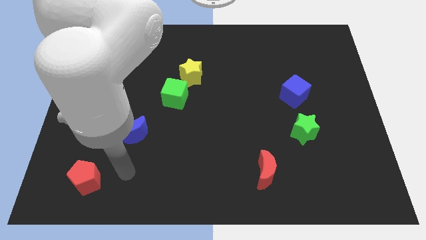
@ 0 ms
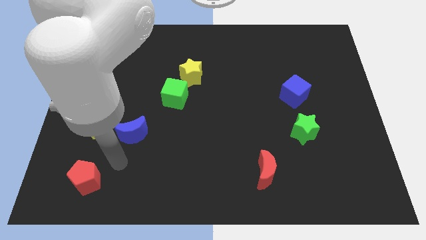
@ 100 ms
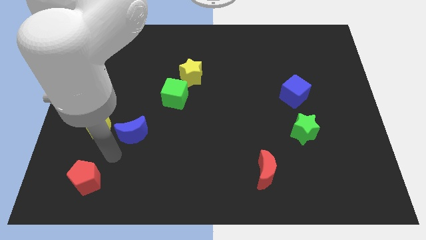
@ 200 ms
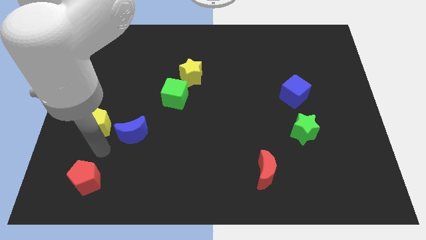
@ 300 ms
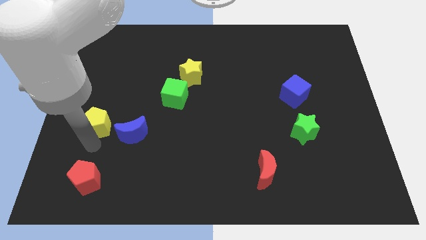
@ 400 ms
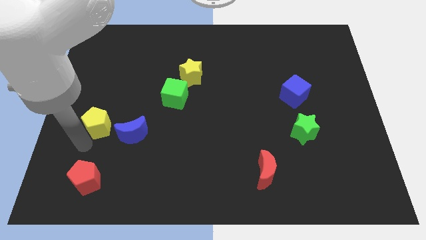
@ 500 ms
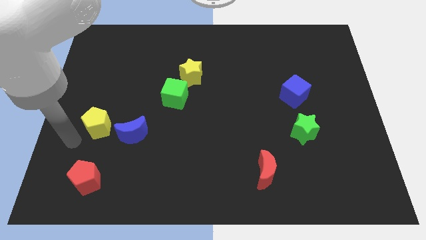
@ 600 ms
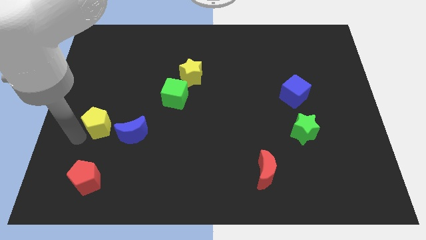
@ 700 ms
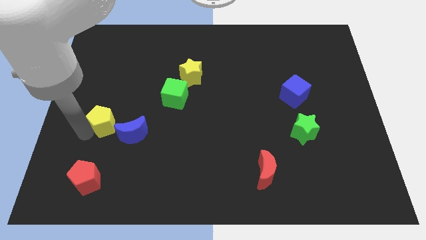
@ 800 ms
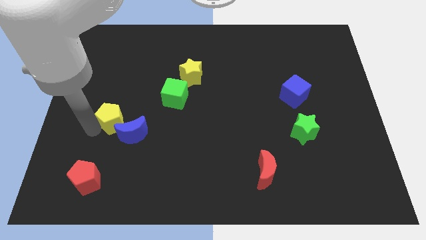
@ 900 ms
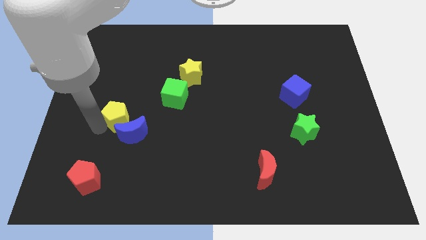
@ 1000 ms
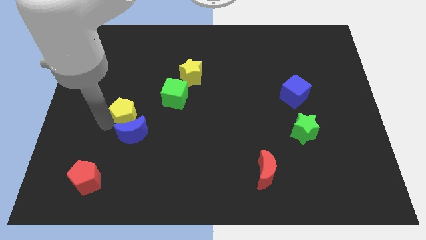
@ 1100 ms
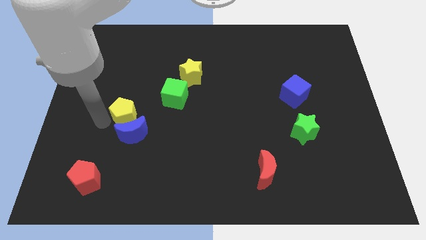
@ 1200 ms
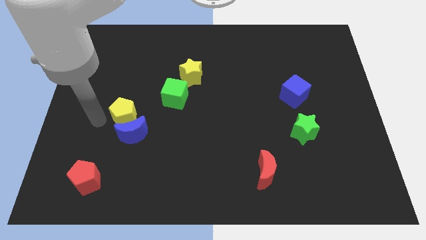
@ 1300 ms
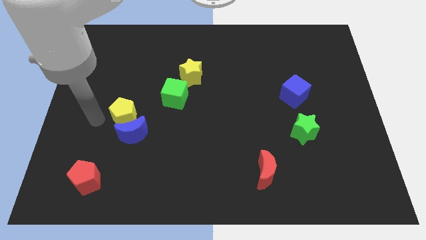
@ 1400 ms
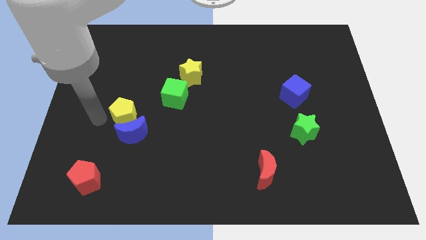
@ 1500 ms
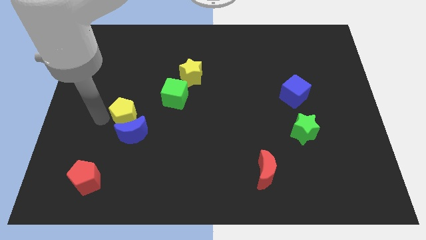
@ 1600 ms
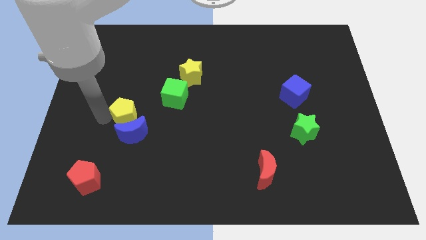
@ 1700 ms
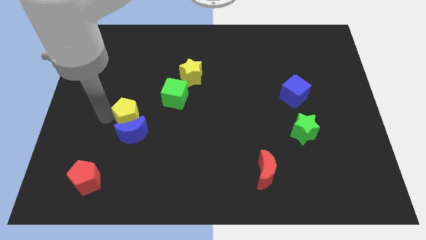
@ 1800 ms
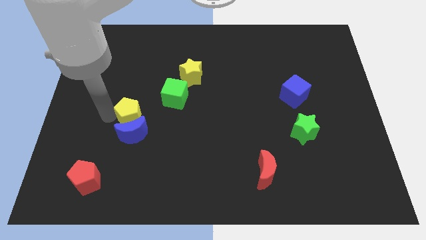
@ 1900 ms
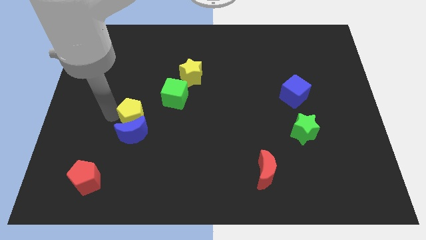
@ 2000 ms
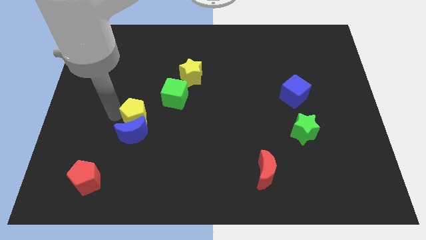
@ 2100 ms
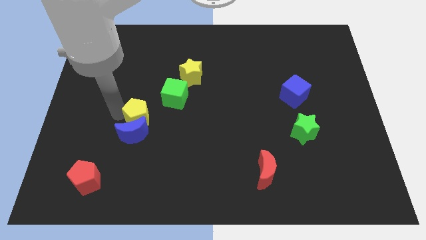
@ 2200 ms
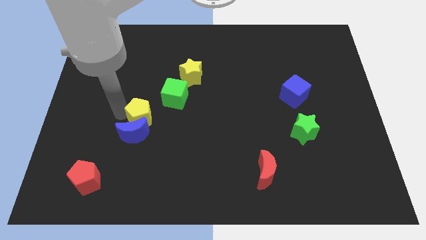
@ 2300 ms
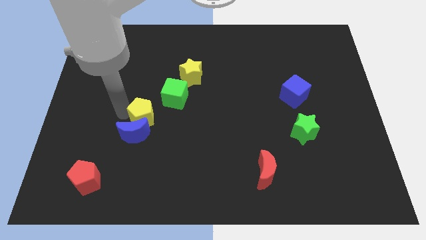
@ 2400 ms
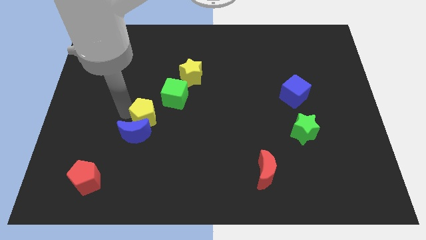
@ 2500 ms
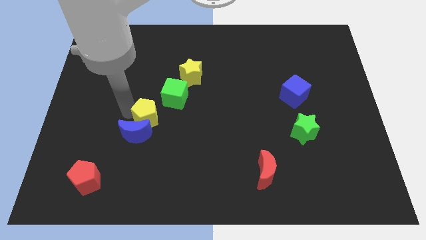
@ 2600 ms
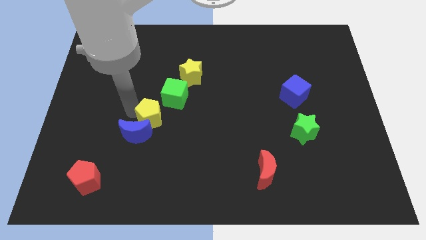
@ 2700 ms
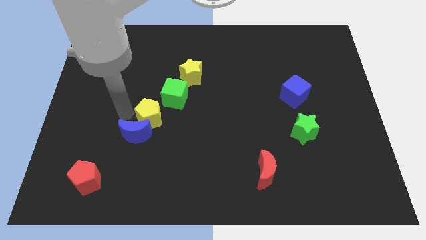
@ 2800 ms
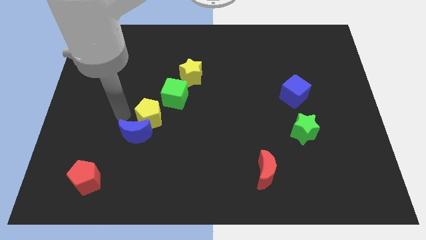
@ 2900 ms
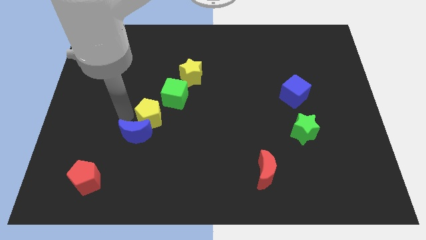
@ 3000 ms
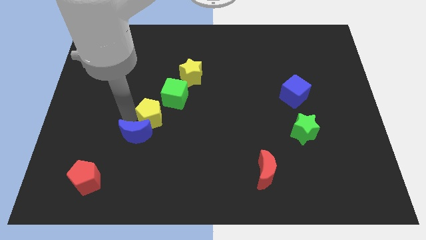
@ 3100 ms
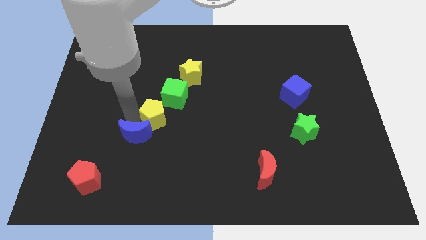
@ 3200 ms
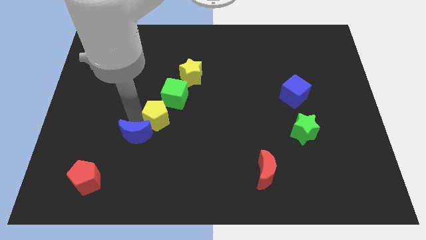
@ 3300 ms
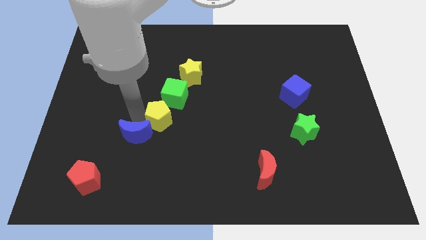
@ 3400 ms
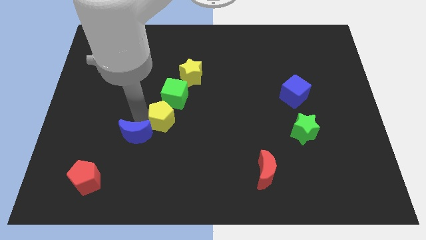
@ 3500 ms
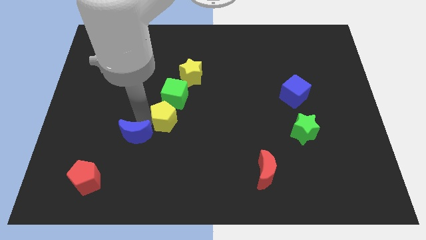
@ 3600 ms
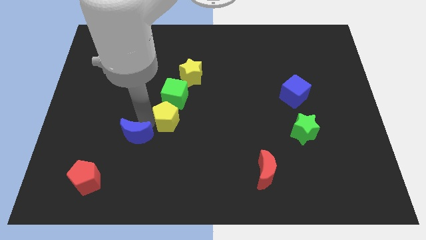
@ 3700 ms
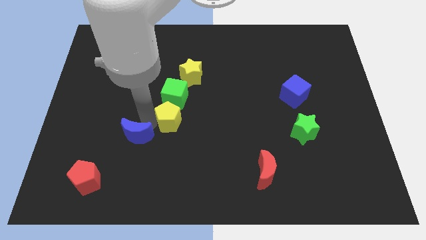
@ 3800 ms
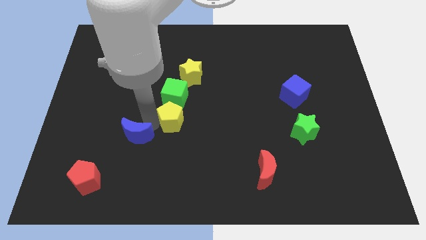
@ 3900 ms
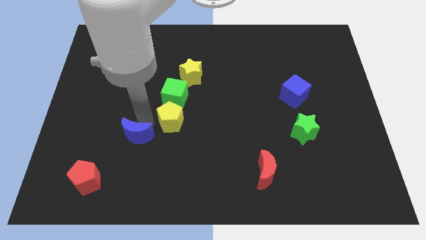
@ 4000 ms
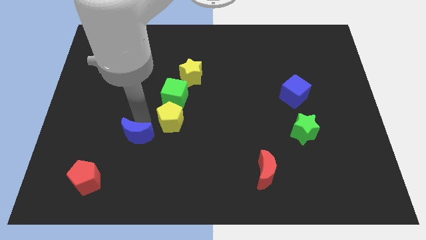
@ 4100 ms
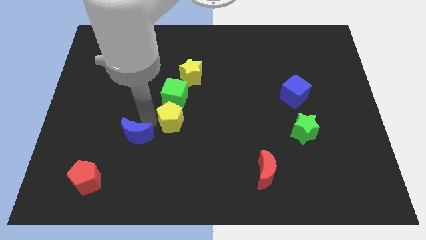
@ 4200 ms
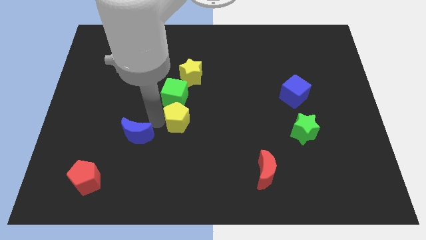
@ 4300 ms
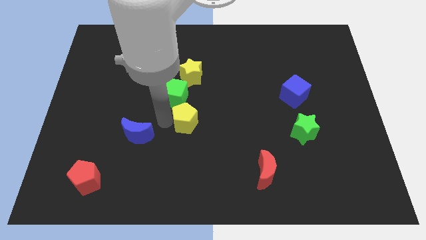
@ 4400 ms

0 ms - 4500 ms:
slide the yellow pentagon to the right

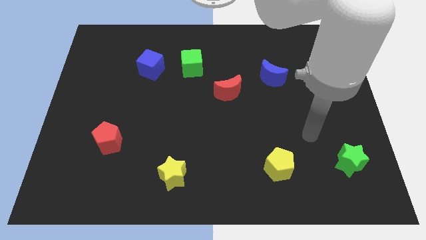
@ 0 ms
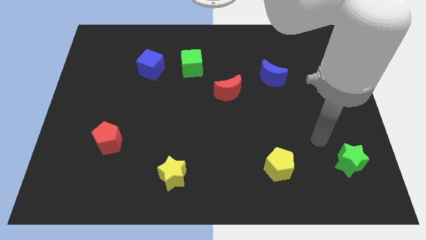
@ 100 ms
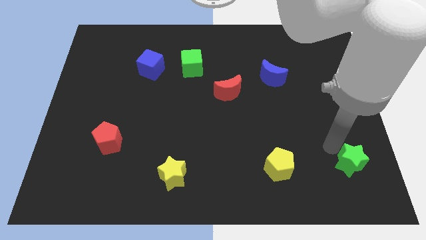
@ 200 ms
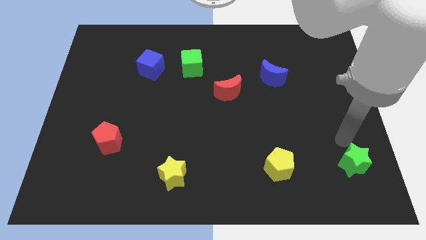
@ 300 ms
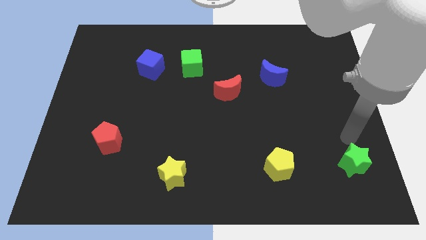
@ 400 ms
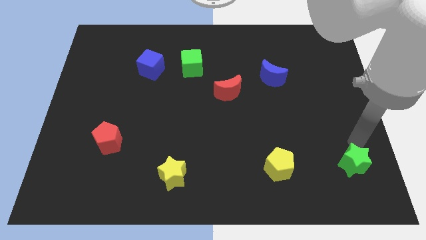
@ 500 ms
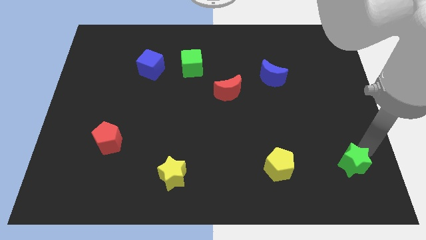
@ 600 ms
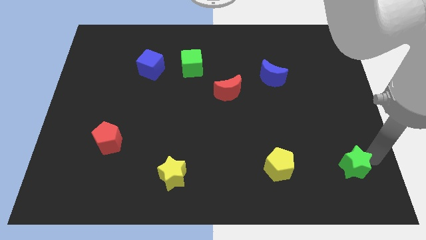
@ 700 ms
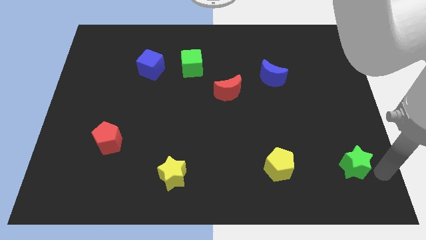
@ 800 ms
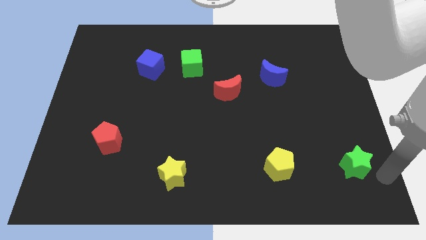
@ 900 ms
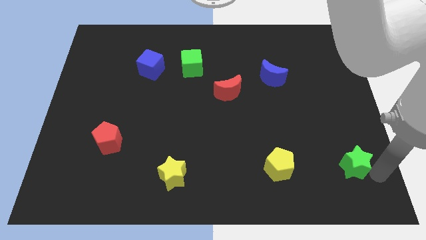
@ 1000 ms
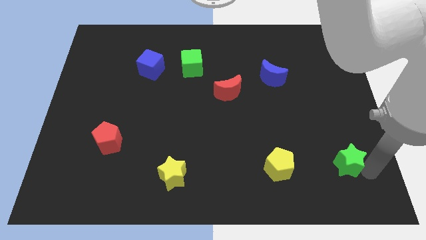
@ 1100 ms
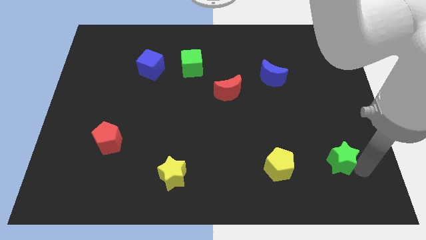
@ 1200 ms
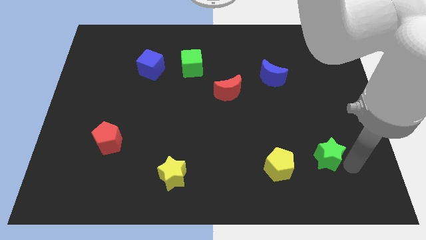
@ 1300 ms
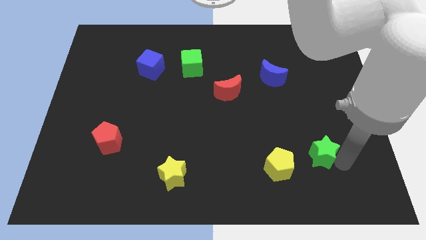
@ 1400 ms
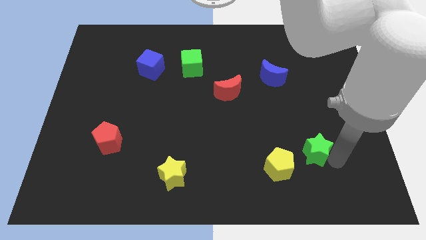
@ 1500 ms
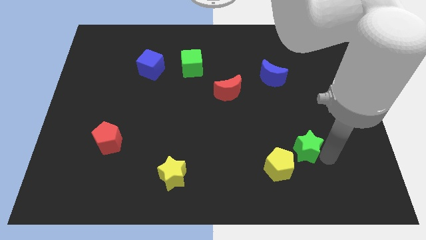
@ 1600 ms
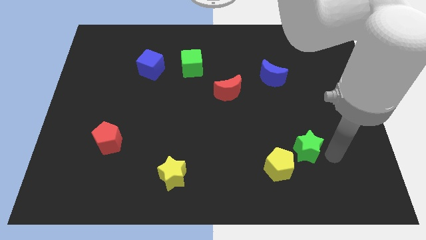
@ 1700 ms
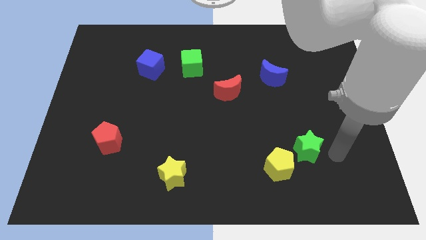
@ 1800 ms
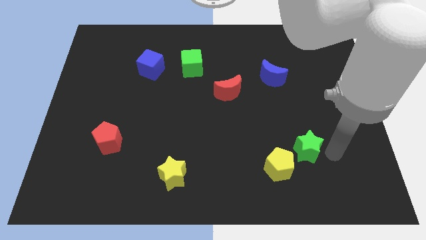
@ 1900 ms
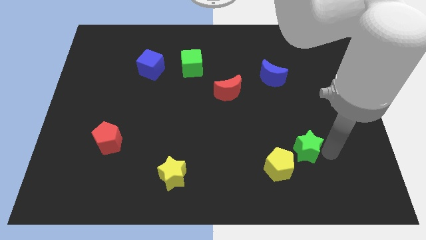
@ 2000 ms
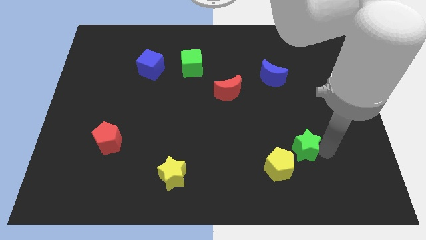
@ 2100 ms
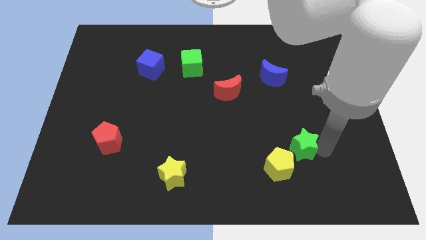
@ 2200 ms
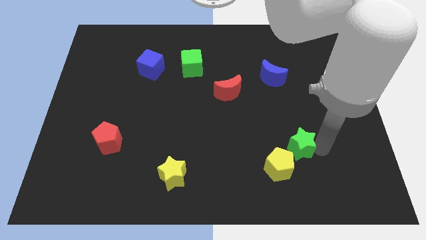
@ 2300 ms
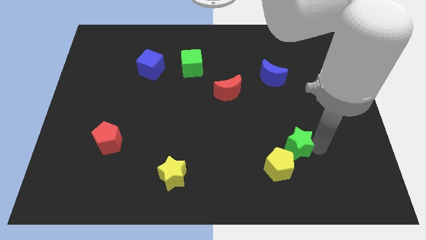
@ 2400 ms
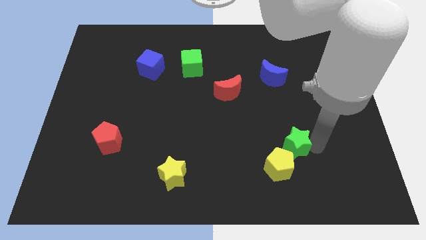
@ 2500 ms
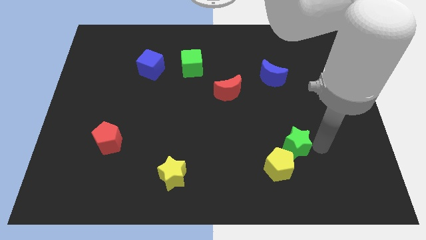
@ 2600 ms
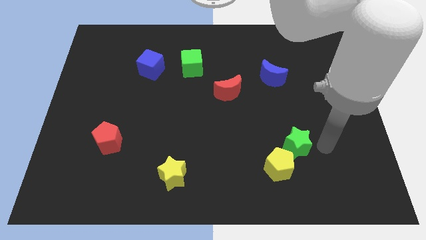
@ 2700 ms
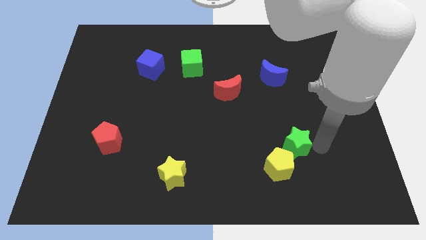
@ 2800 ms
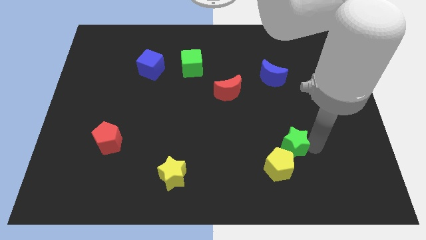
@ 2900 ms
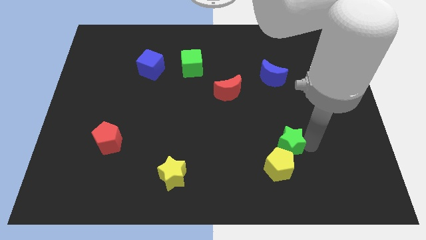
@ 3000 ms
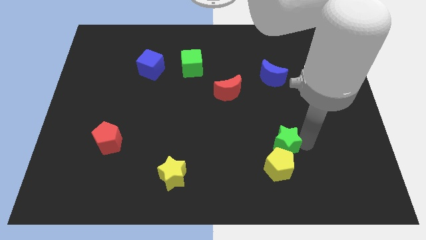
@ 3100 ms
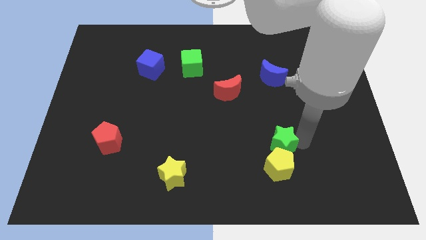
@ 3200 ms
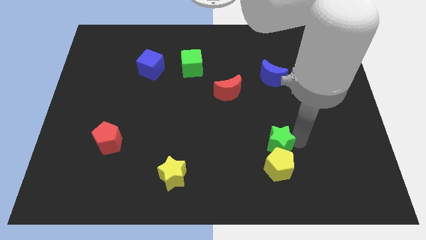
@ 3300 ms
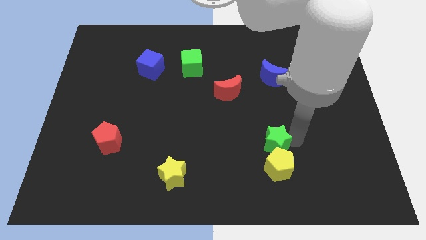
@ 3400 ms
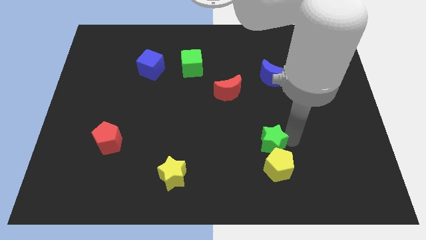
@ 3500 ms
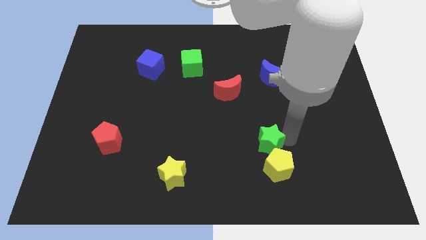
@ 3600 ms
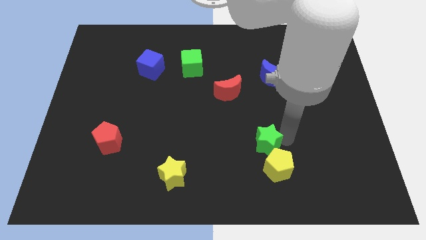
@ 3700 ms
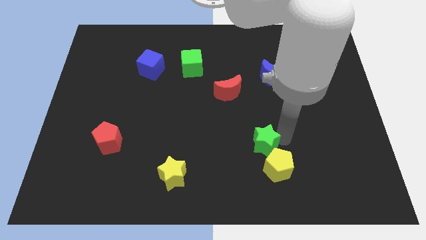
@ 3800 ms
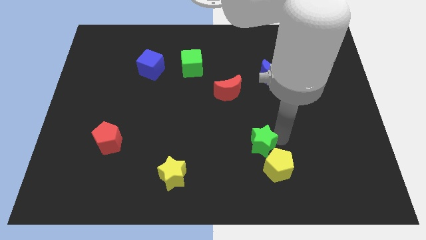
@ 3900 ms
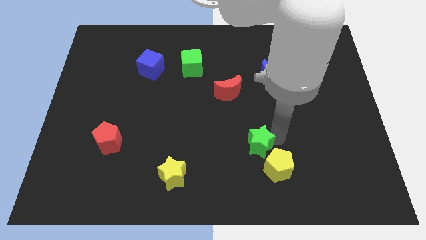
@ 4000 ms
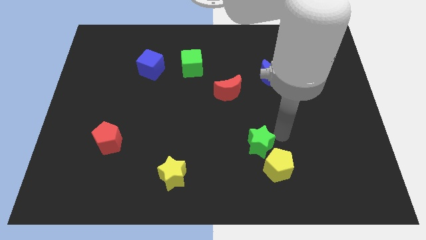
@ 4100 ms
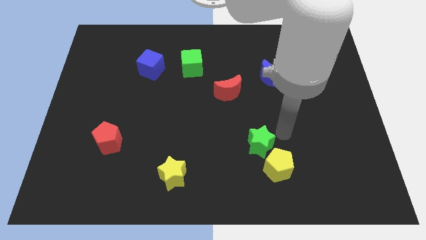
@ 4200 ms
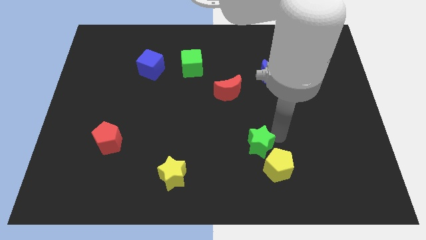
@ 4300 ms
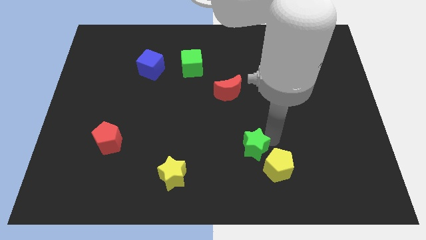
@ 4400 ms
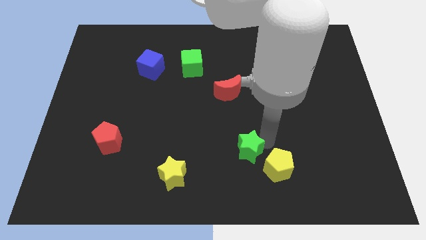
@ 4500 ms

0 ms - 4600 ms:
slide the green star left
